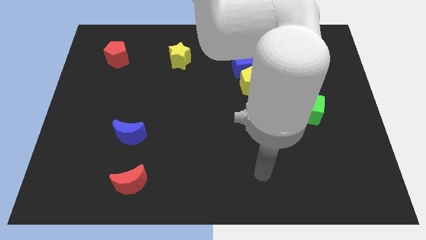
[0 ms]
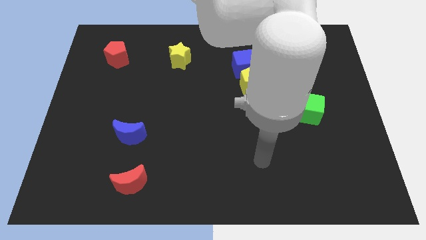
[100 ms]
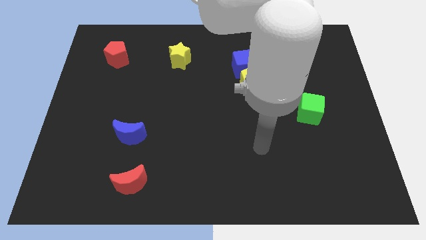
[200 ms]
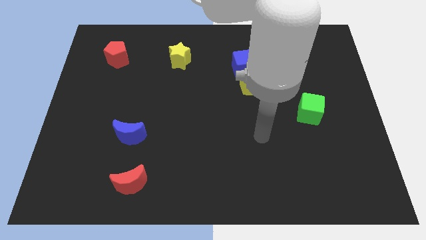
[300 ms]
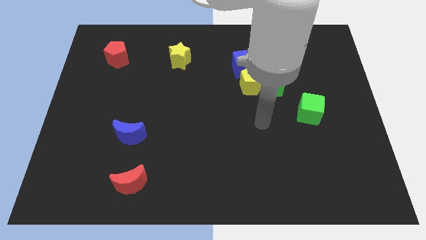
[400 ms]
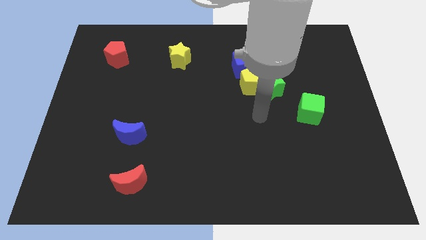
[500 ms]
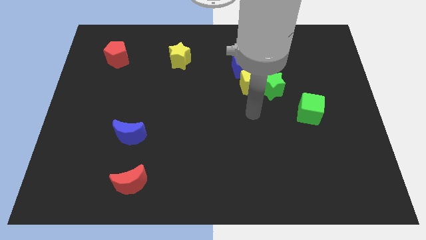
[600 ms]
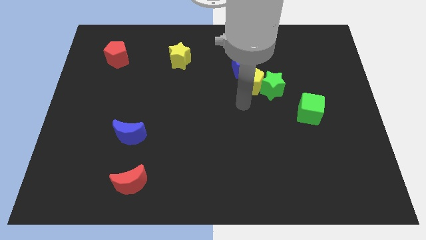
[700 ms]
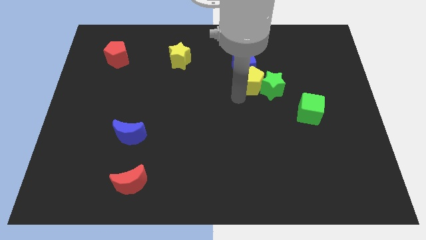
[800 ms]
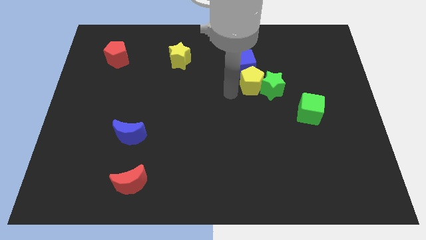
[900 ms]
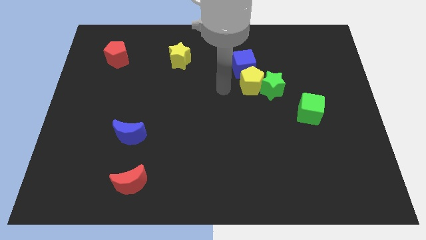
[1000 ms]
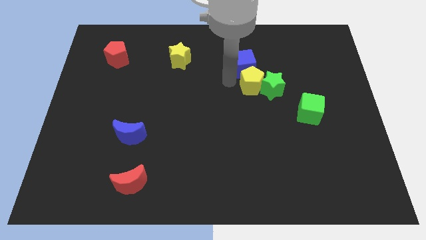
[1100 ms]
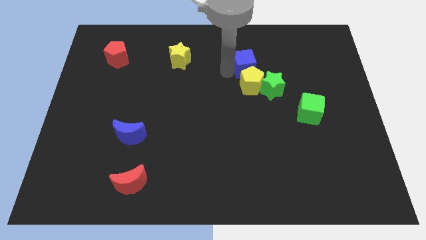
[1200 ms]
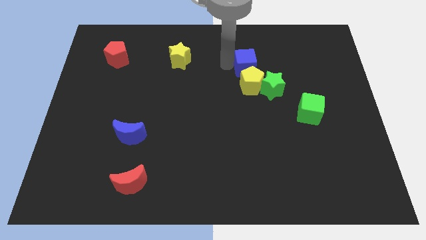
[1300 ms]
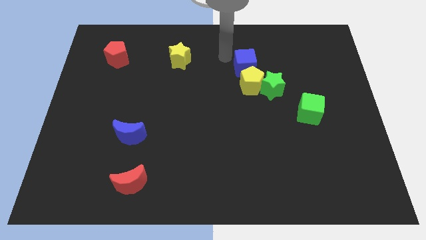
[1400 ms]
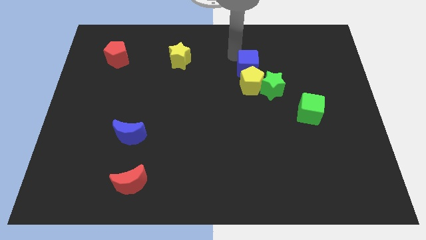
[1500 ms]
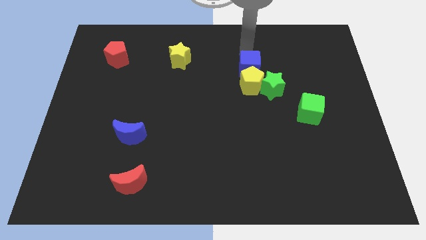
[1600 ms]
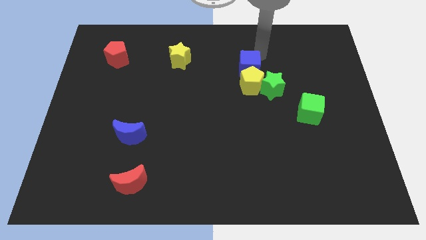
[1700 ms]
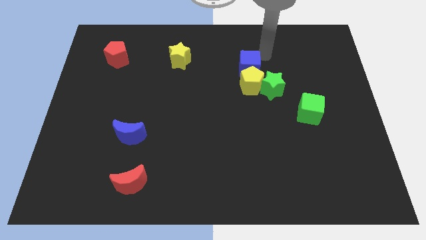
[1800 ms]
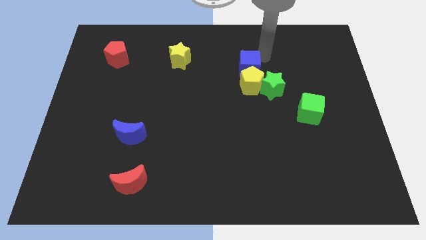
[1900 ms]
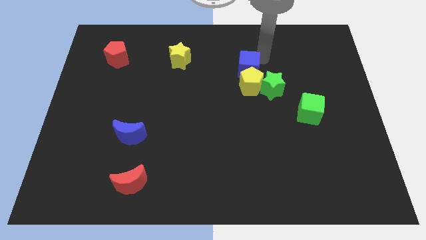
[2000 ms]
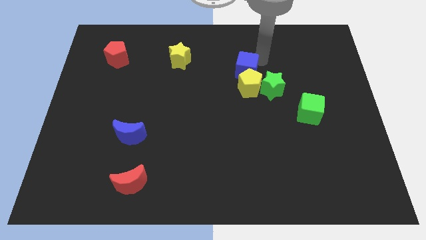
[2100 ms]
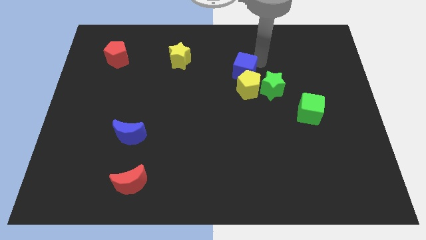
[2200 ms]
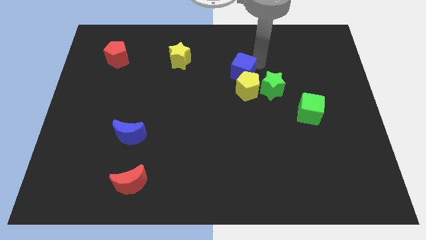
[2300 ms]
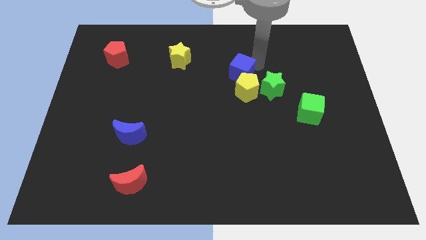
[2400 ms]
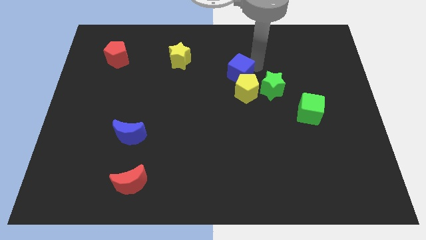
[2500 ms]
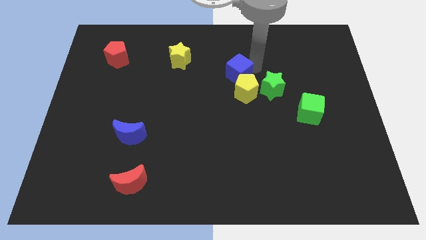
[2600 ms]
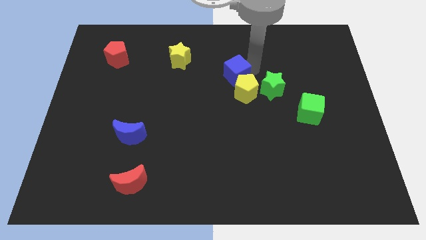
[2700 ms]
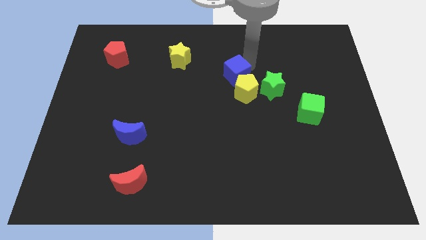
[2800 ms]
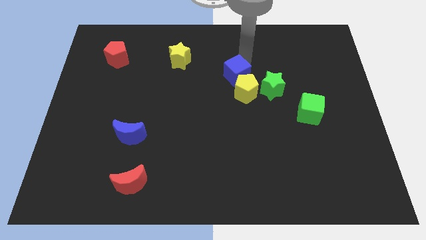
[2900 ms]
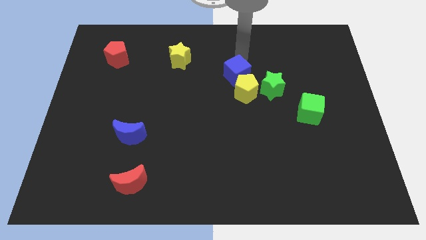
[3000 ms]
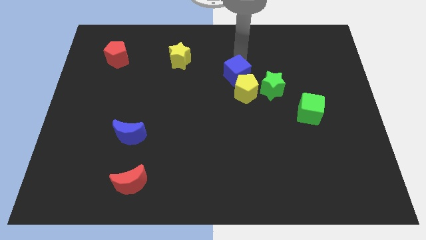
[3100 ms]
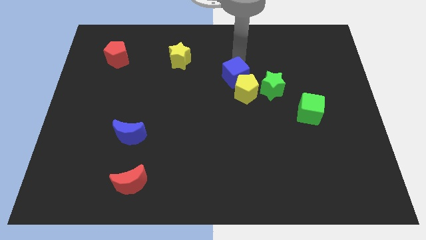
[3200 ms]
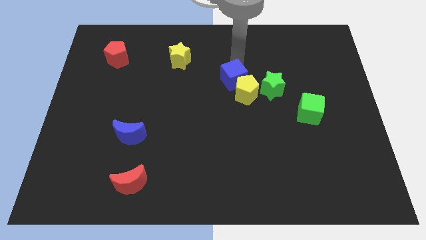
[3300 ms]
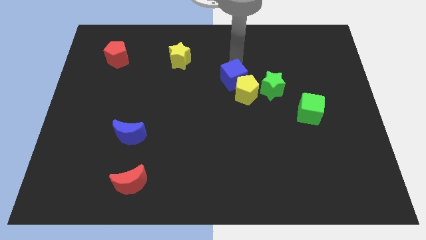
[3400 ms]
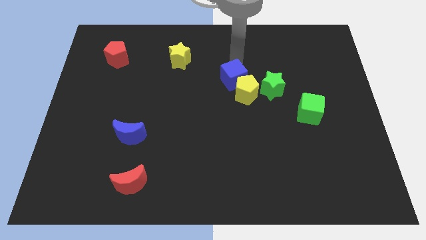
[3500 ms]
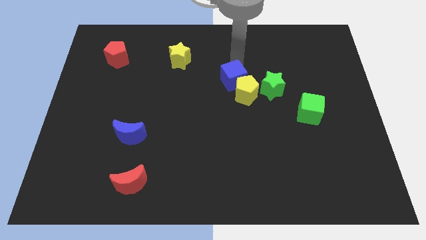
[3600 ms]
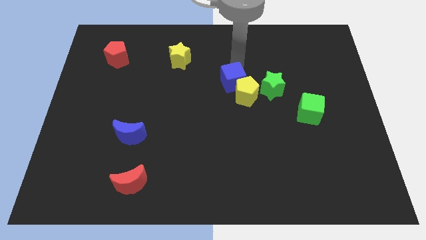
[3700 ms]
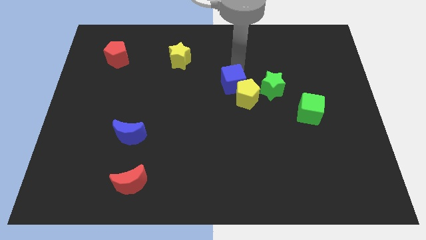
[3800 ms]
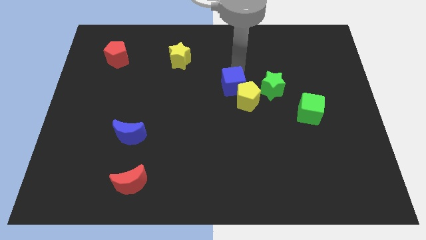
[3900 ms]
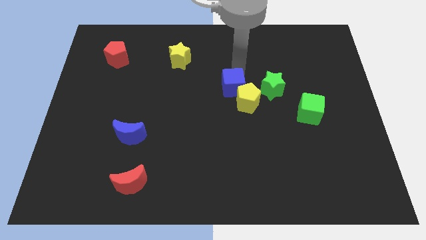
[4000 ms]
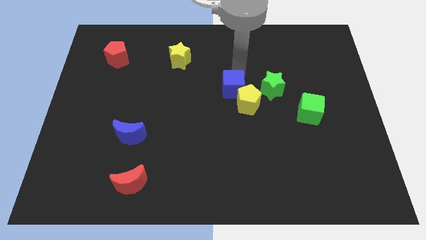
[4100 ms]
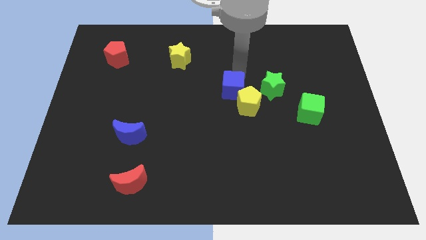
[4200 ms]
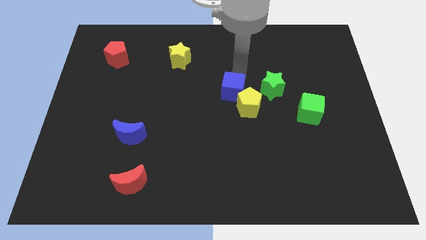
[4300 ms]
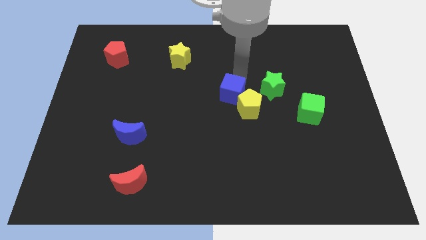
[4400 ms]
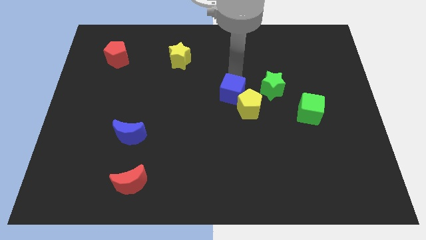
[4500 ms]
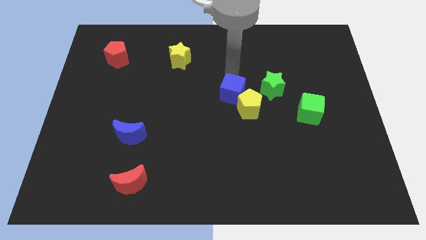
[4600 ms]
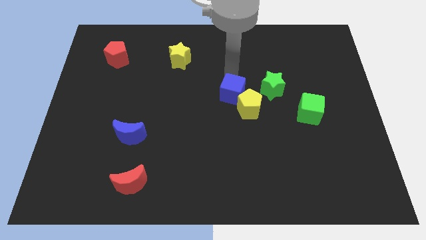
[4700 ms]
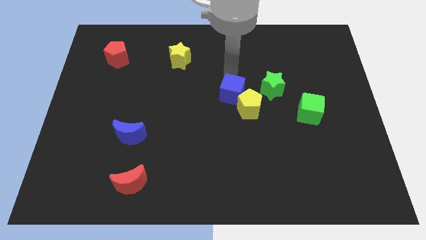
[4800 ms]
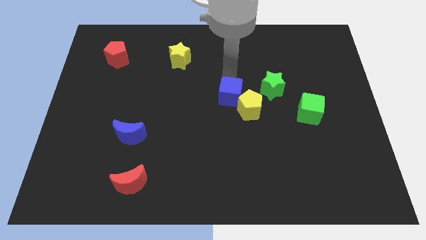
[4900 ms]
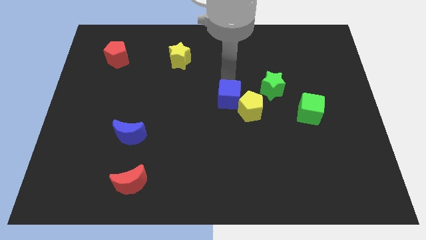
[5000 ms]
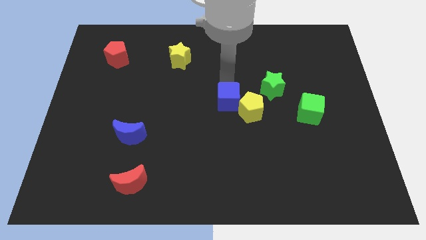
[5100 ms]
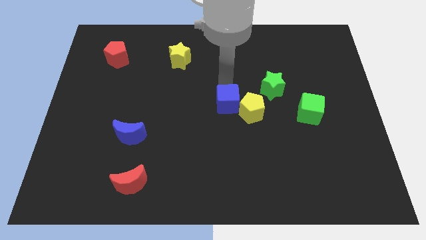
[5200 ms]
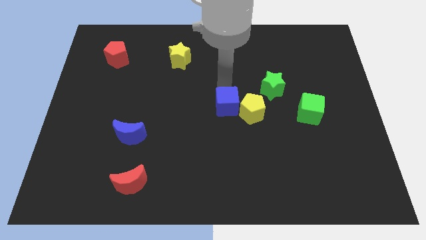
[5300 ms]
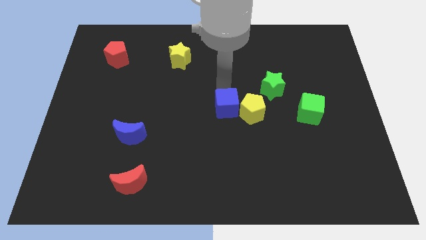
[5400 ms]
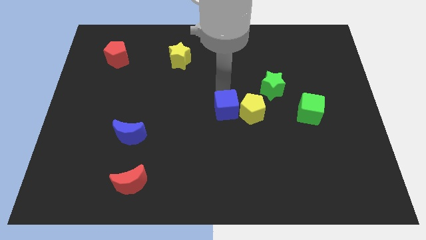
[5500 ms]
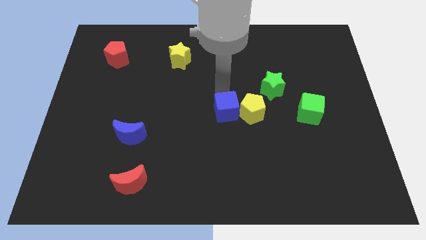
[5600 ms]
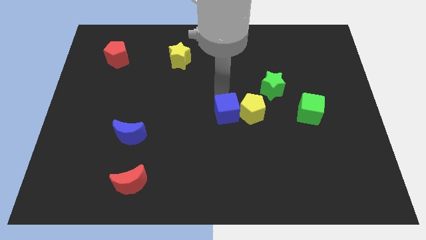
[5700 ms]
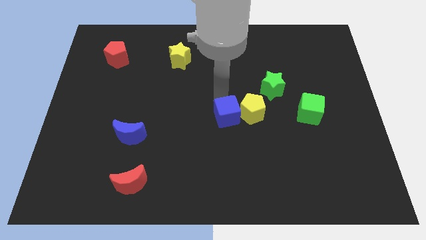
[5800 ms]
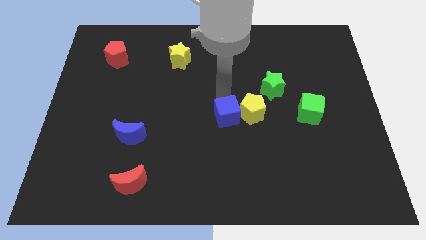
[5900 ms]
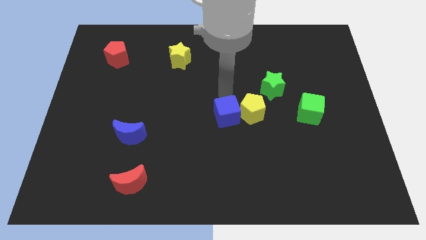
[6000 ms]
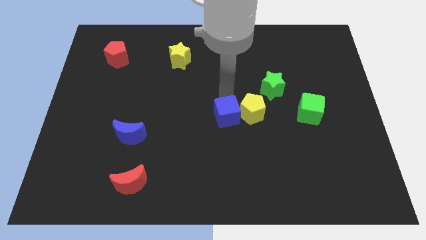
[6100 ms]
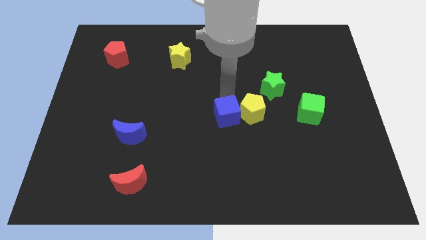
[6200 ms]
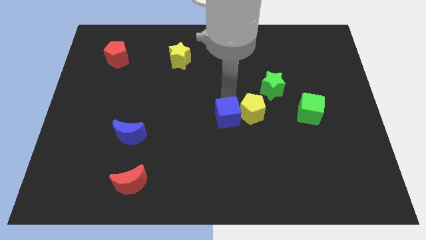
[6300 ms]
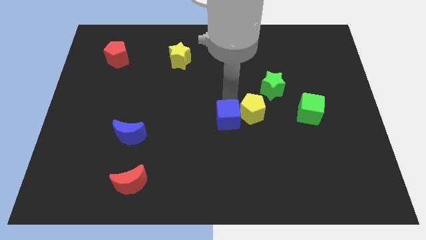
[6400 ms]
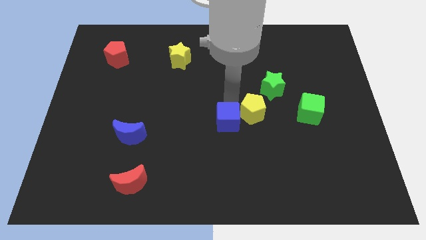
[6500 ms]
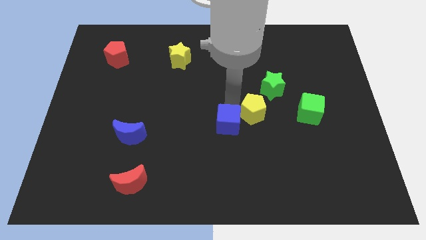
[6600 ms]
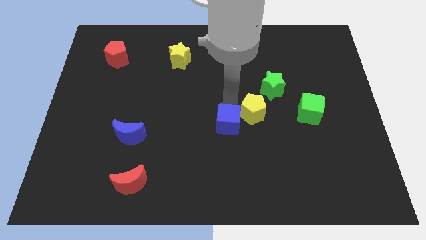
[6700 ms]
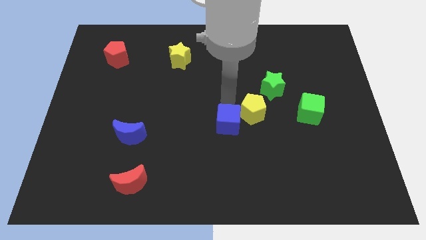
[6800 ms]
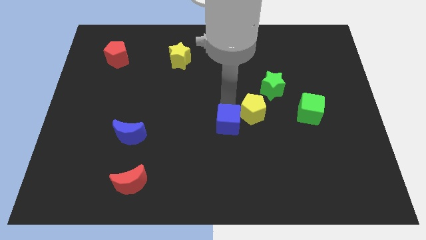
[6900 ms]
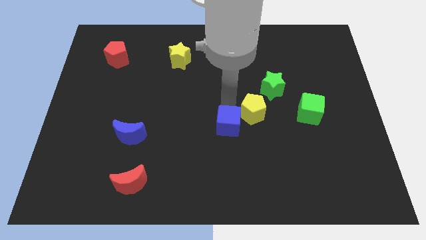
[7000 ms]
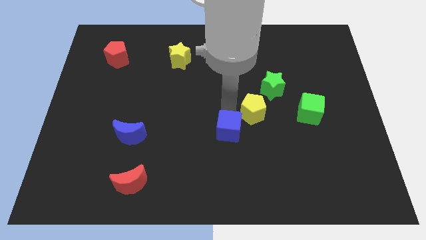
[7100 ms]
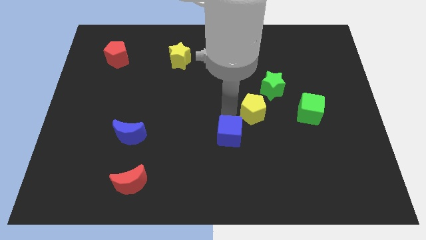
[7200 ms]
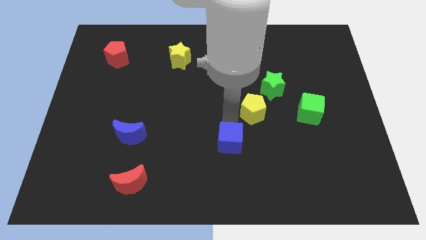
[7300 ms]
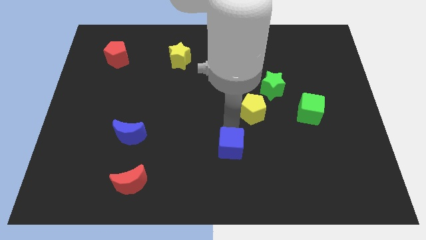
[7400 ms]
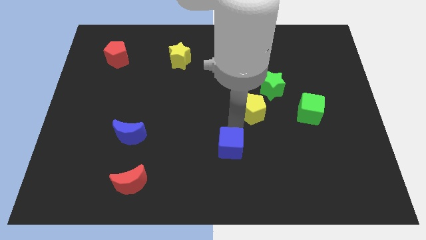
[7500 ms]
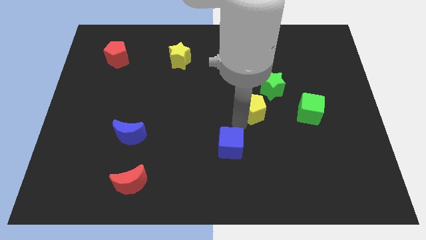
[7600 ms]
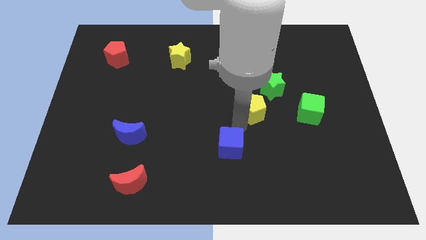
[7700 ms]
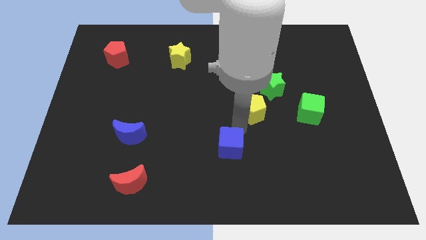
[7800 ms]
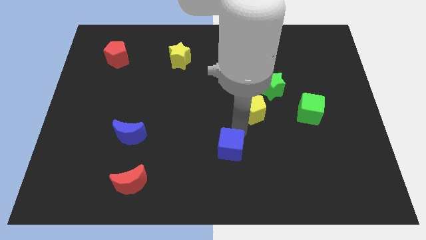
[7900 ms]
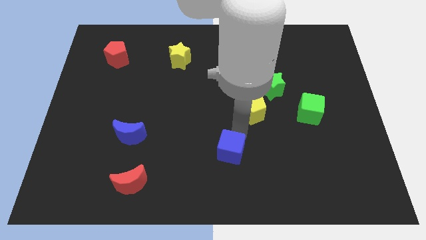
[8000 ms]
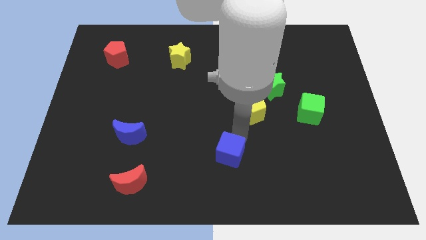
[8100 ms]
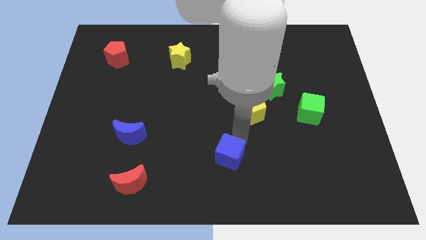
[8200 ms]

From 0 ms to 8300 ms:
move the blue cube to the bottom
